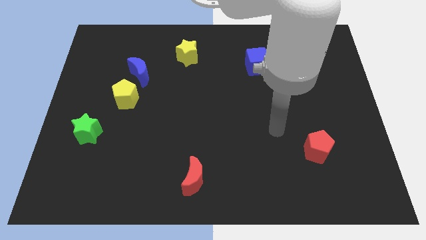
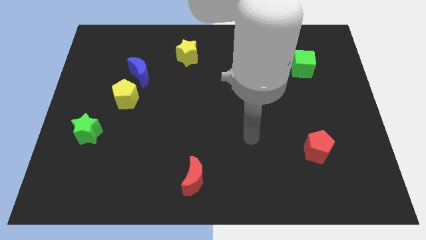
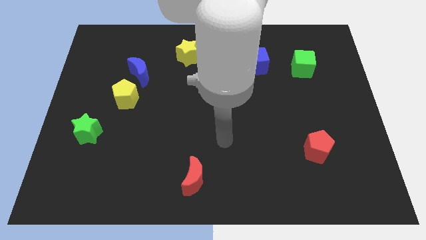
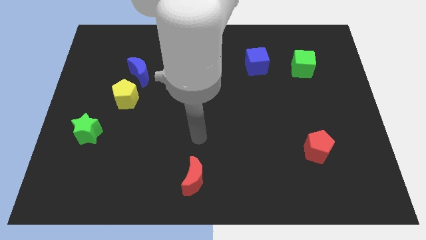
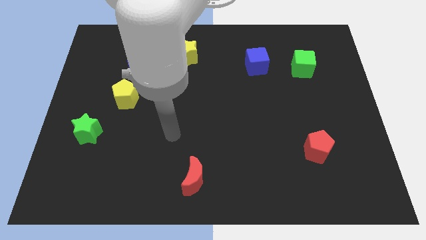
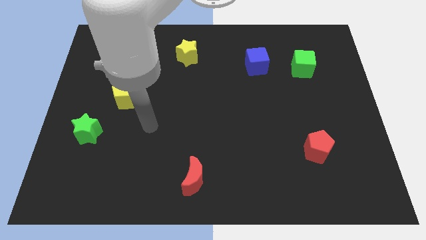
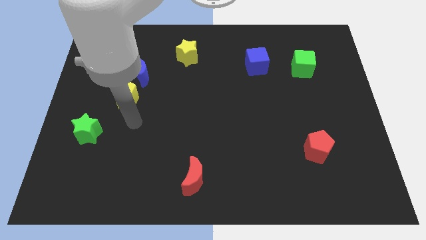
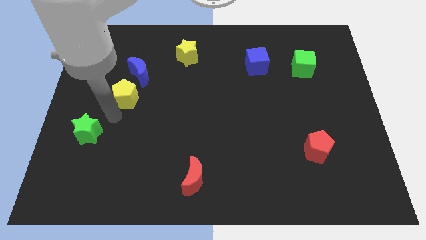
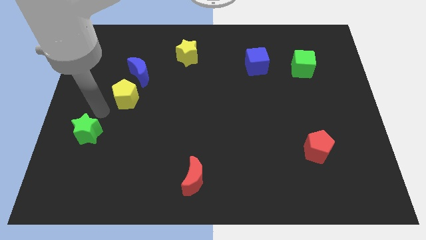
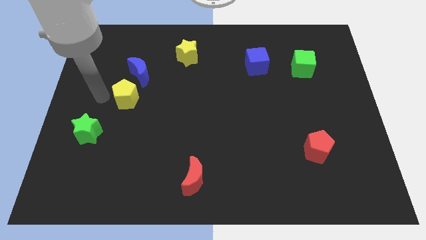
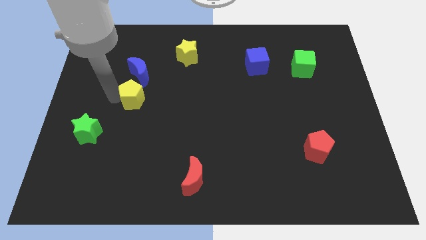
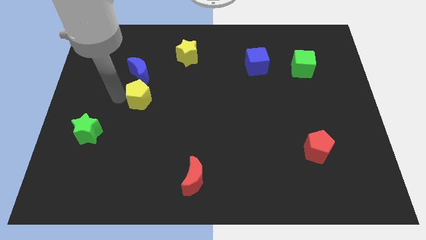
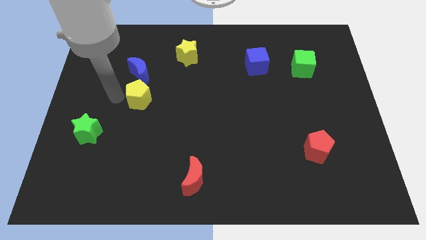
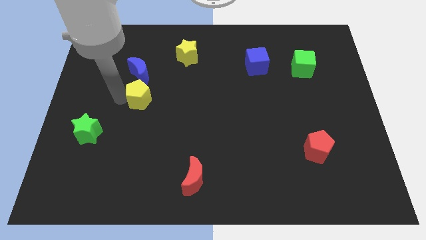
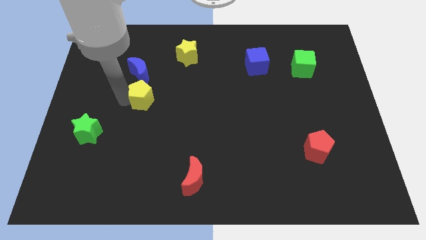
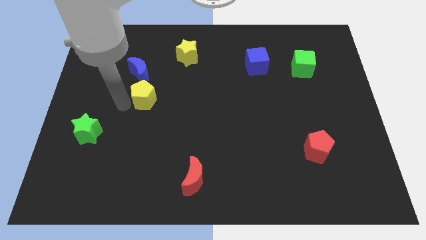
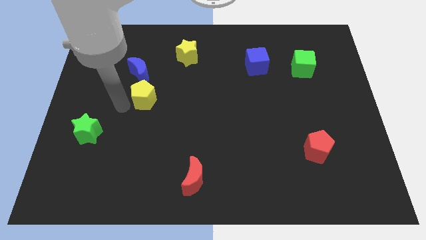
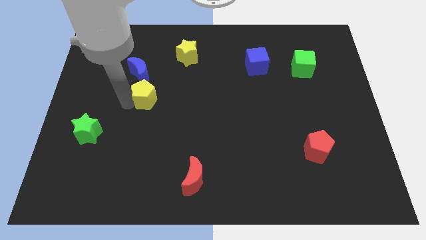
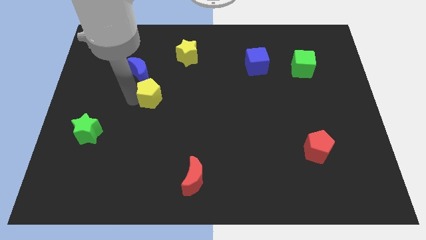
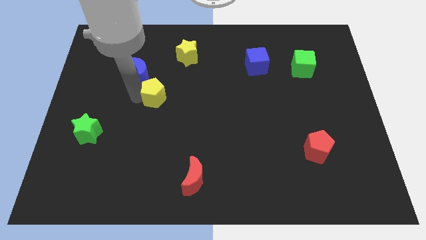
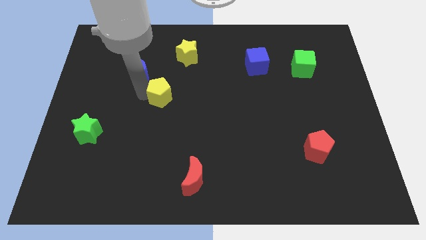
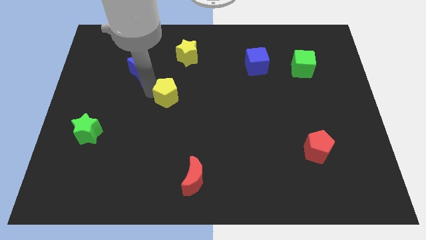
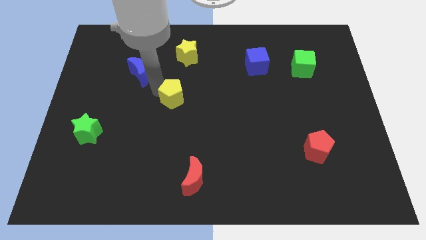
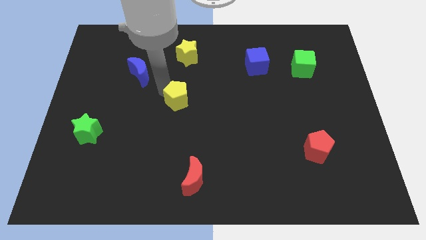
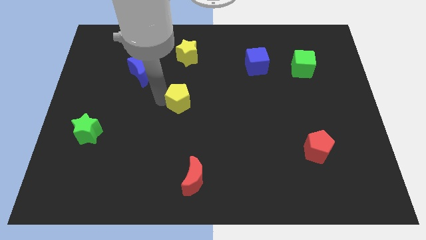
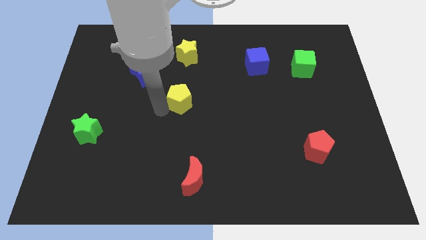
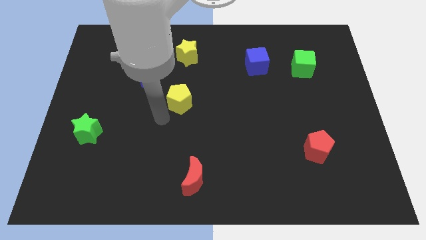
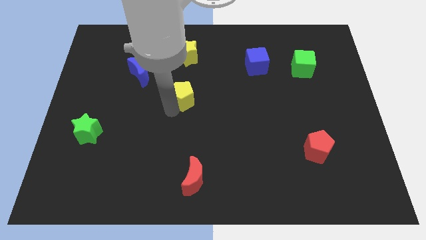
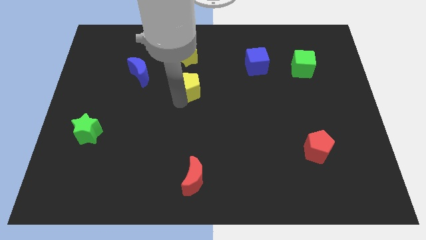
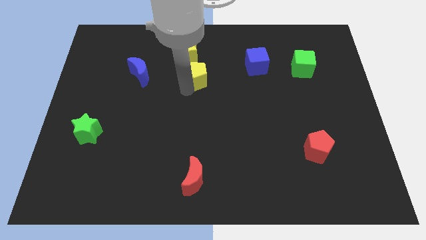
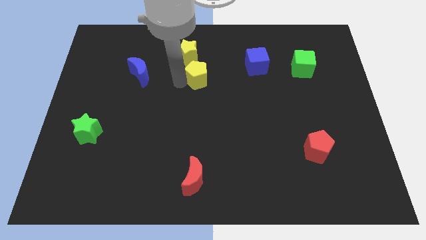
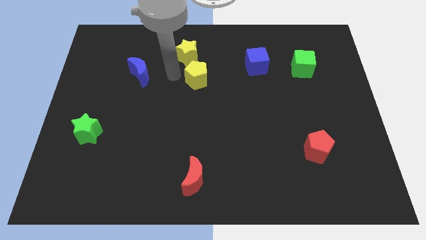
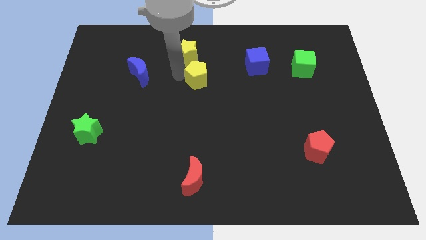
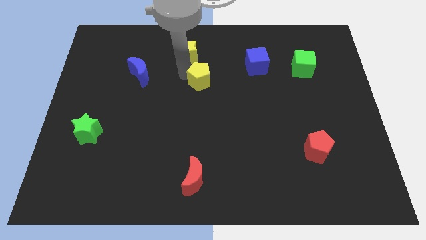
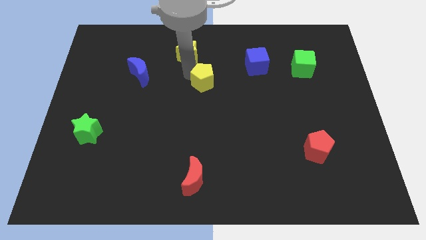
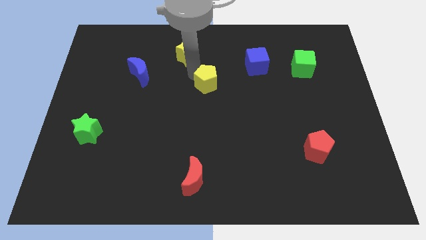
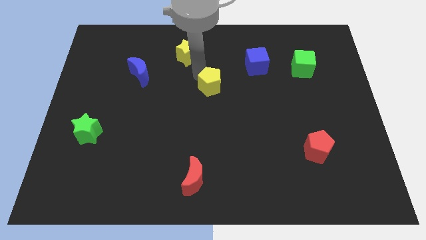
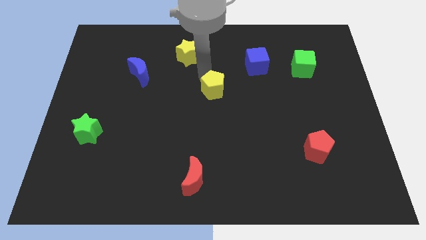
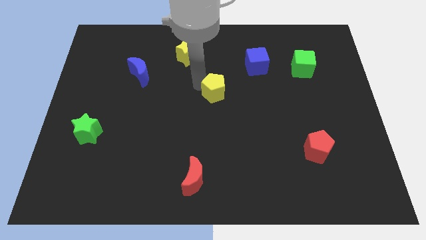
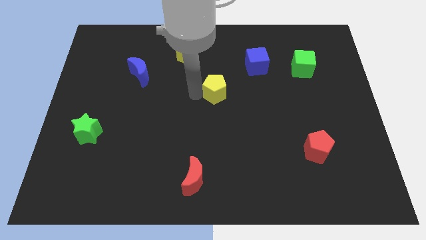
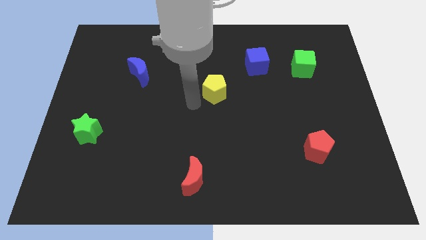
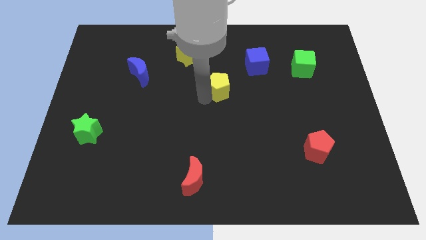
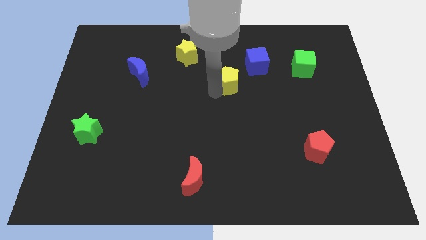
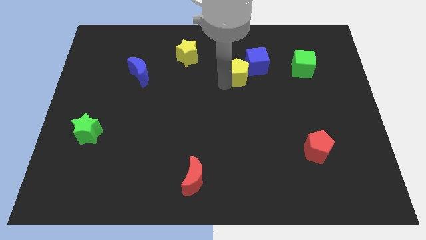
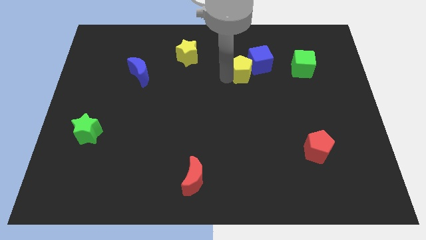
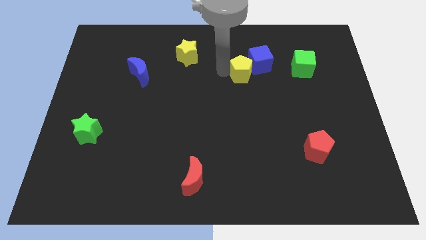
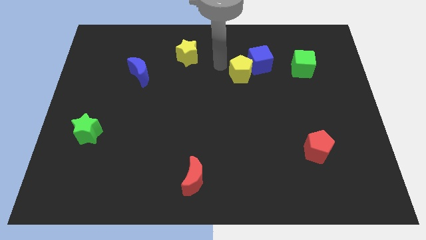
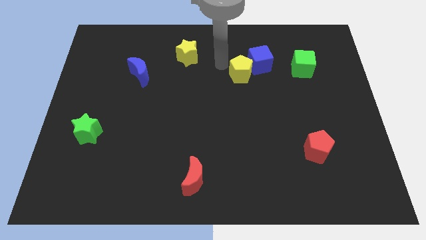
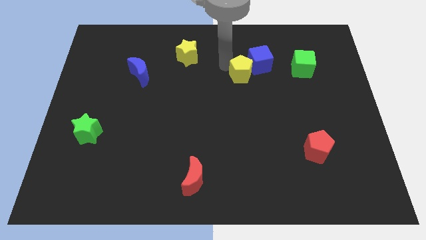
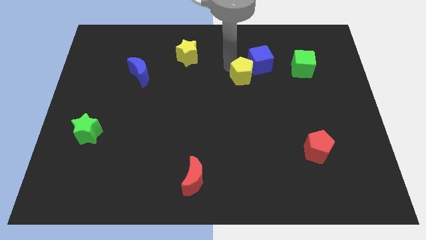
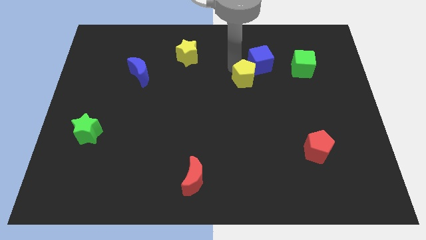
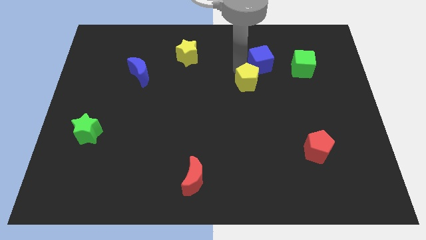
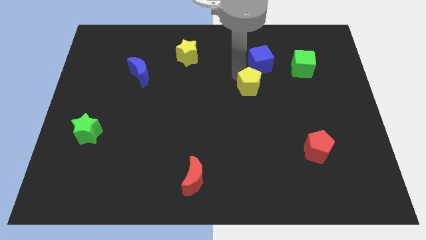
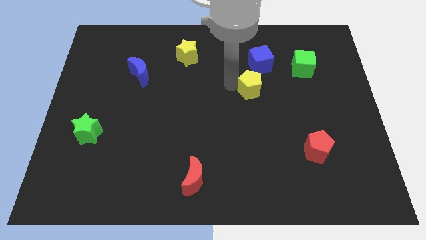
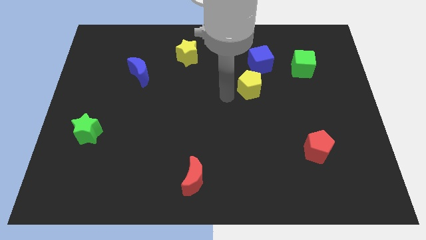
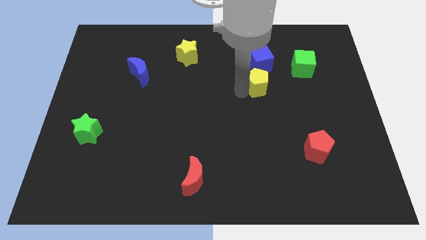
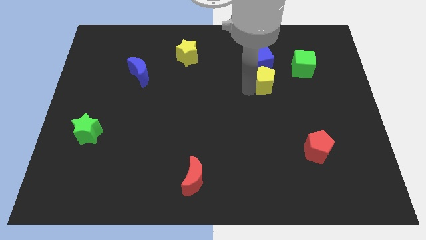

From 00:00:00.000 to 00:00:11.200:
put the yellow pentagon diagonally down and to the right of the blue cube

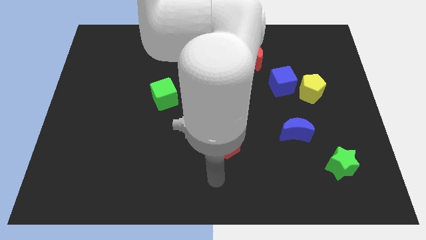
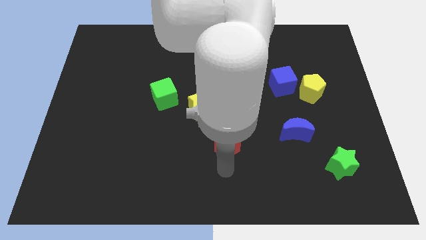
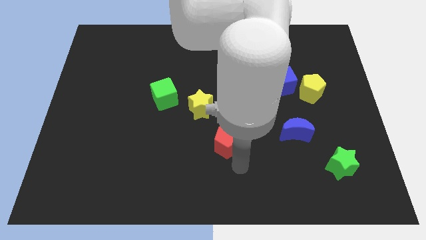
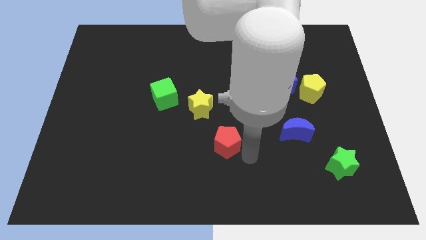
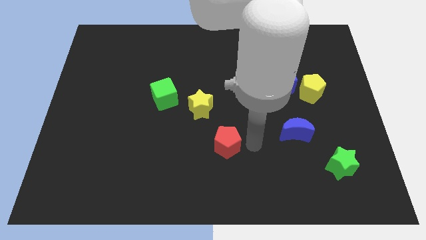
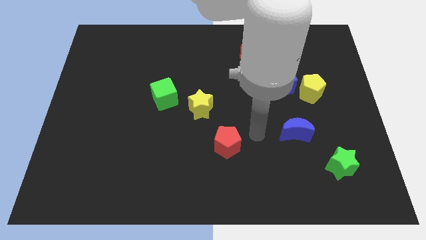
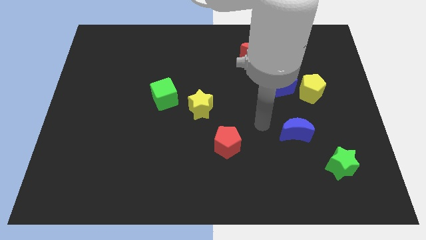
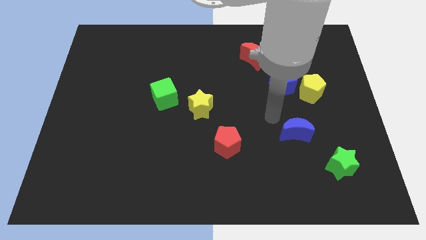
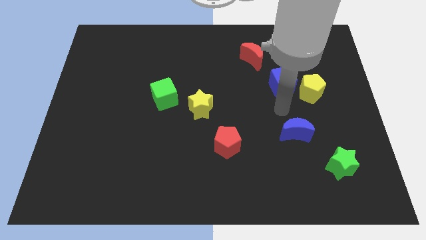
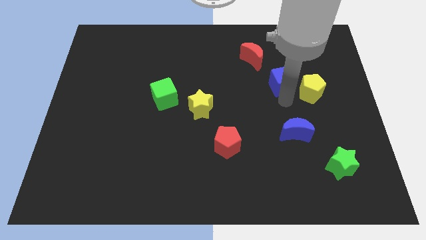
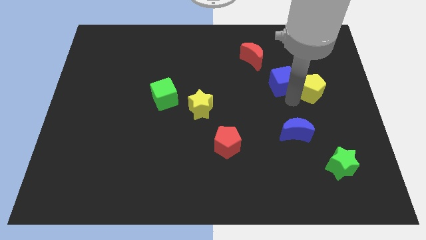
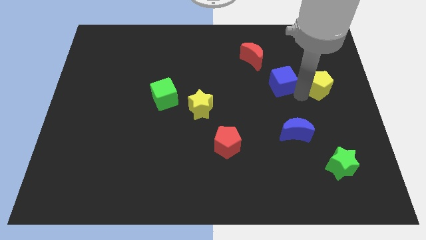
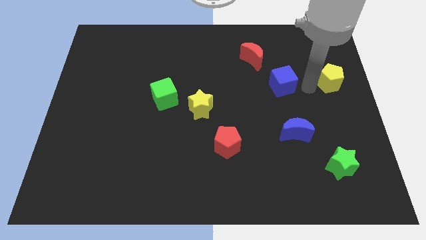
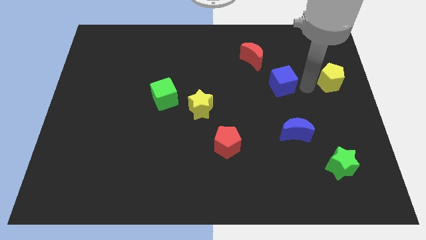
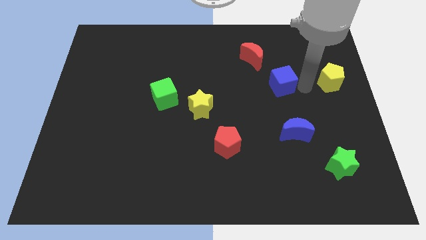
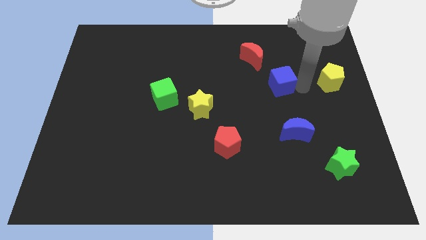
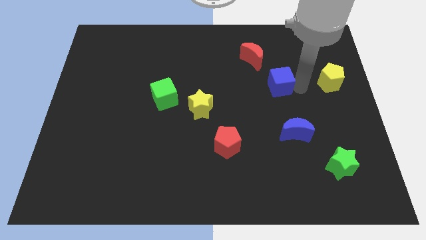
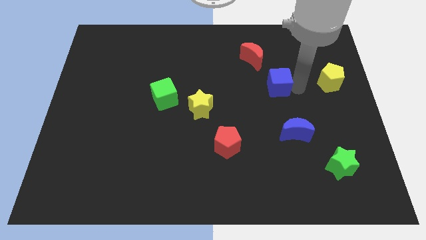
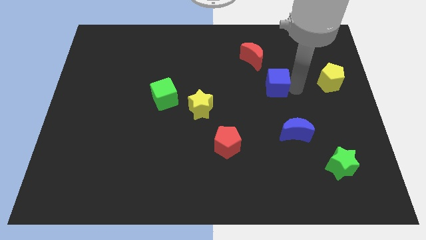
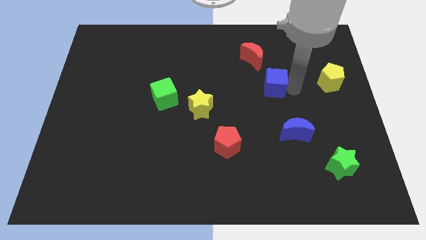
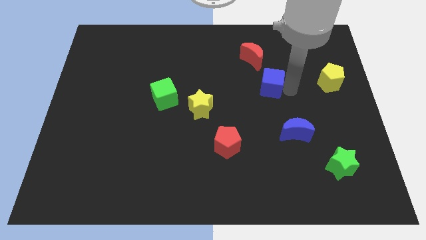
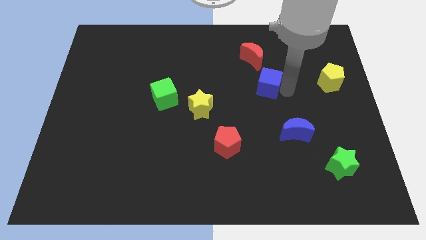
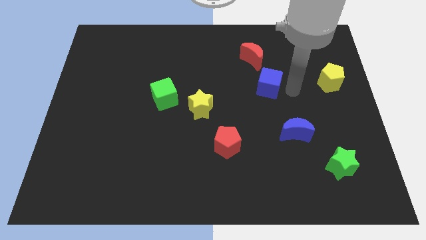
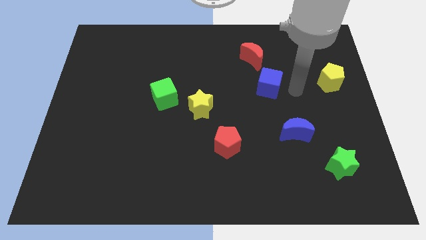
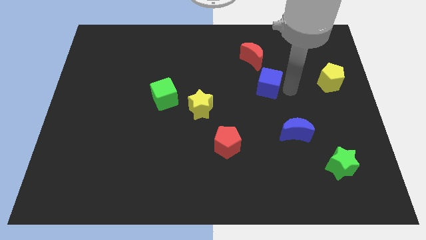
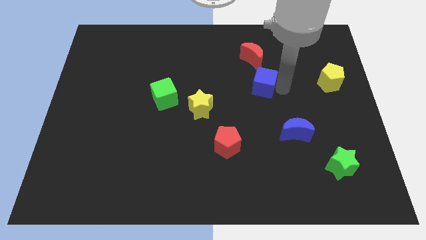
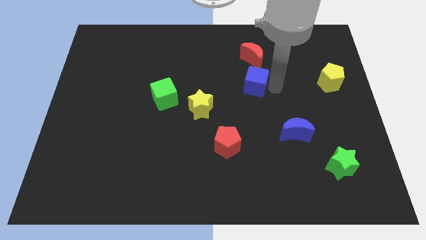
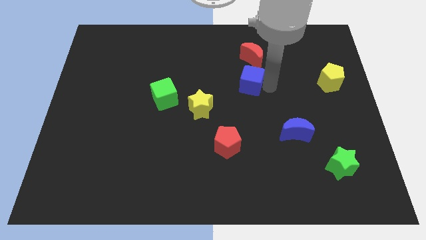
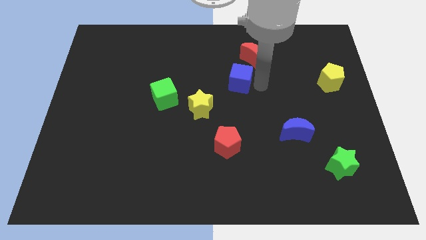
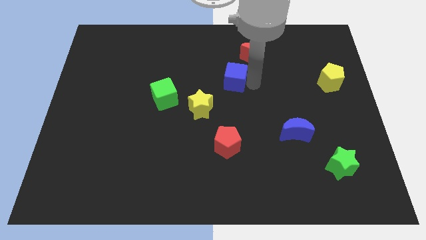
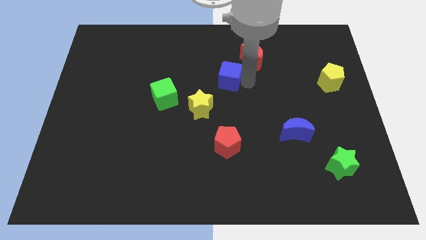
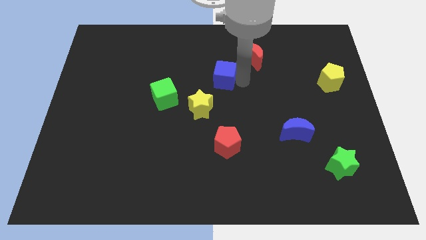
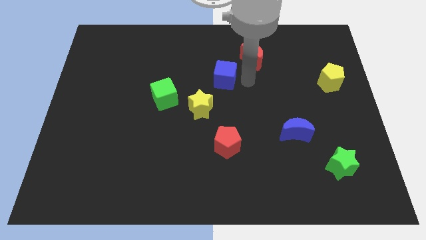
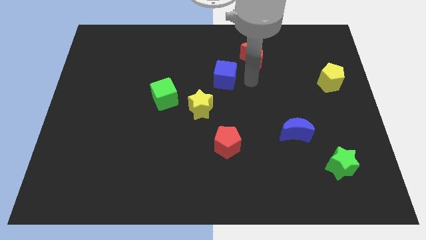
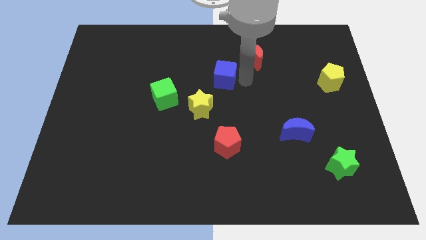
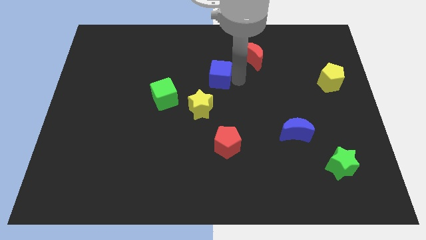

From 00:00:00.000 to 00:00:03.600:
put the blue cube to the top of the yellow star
